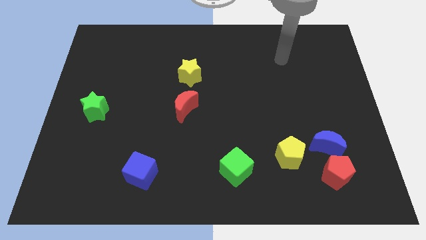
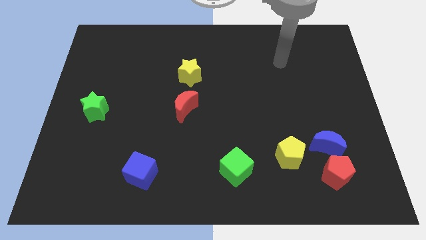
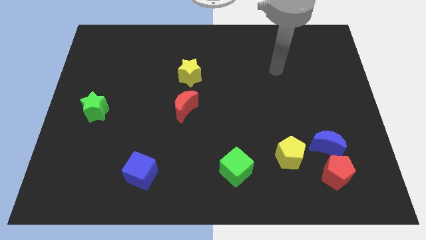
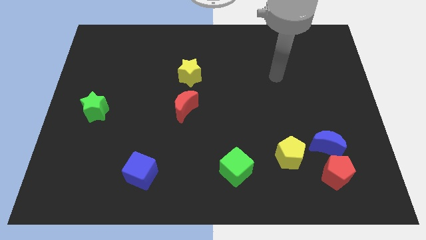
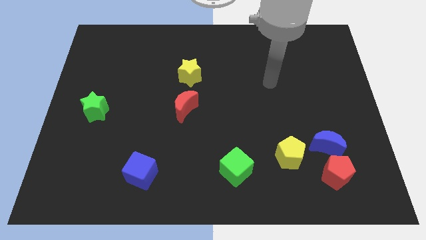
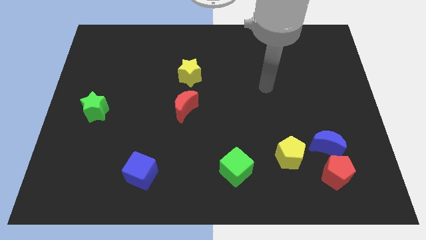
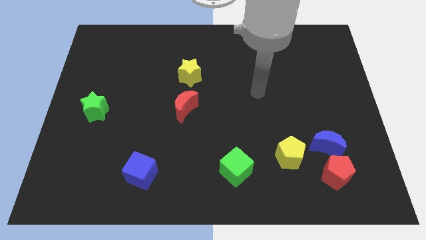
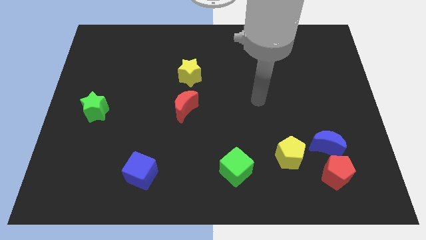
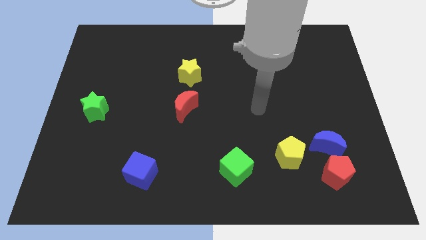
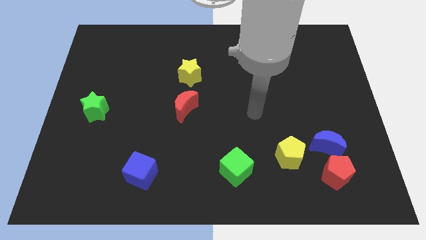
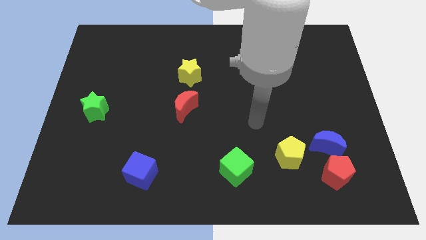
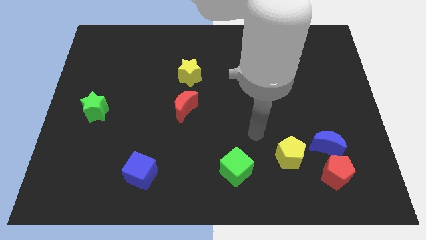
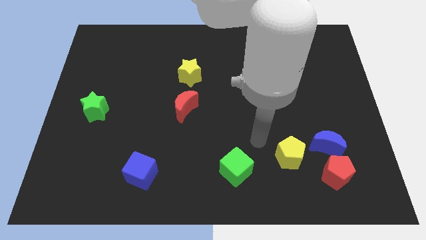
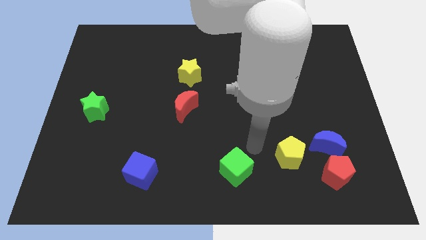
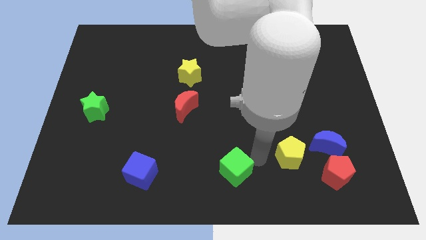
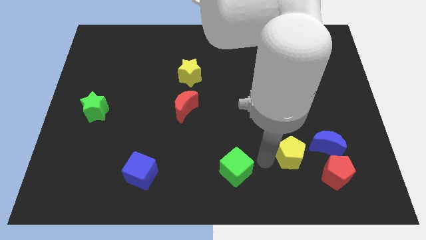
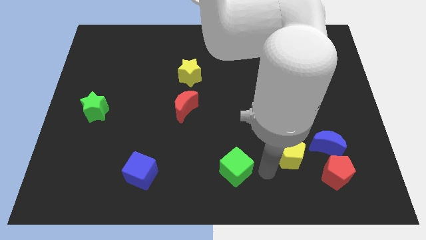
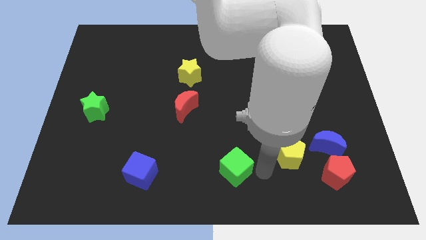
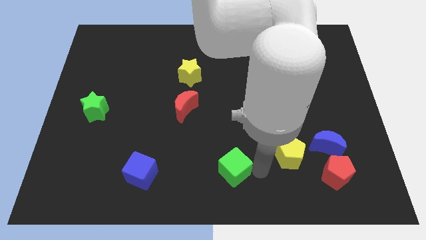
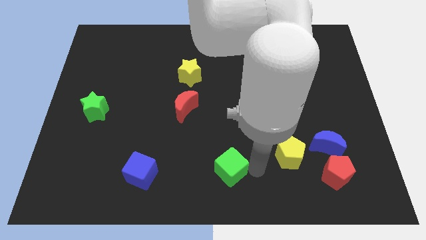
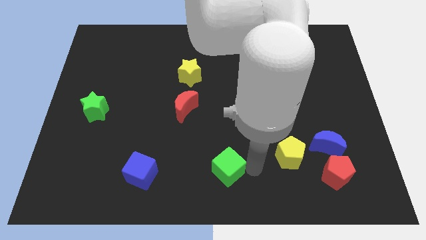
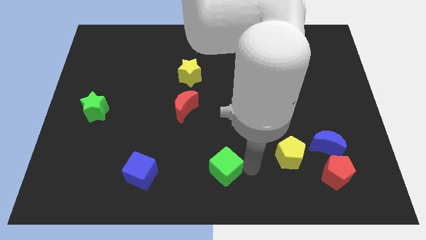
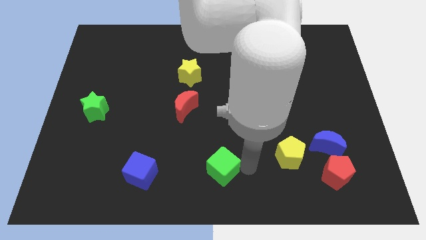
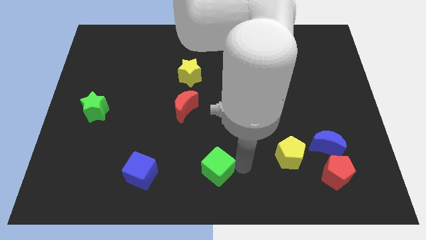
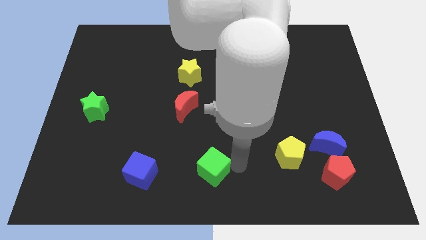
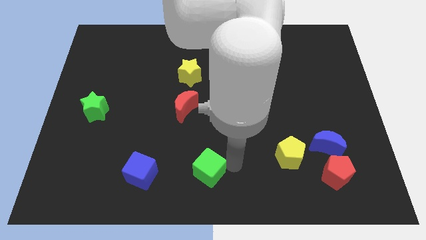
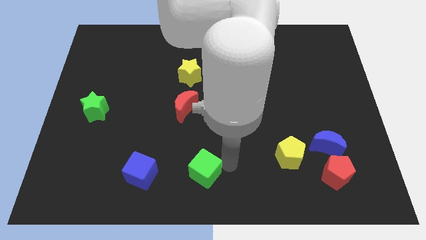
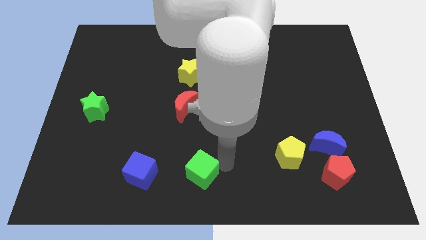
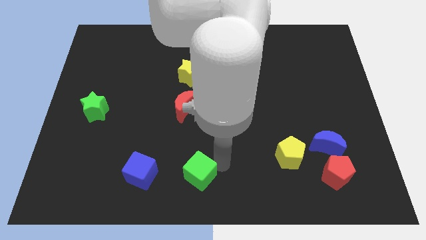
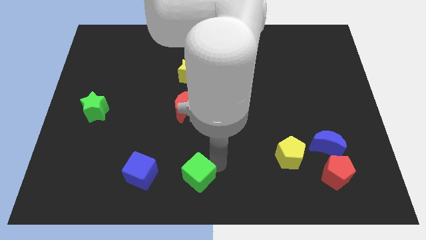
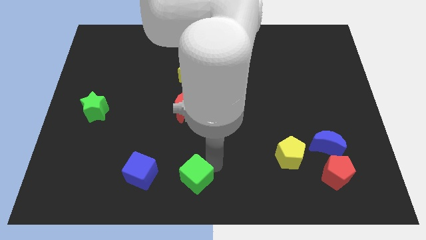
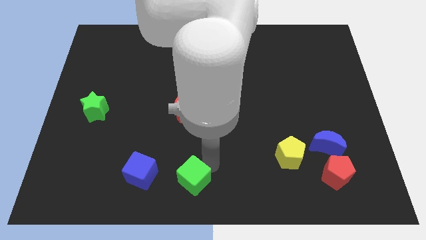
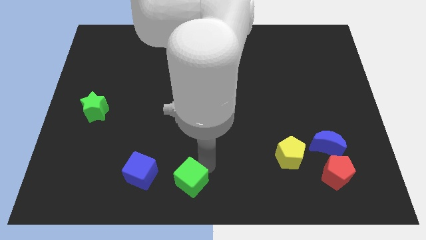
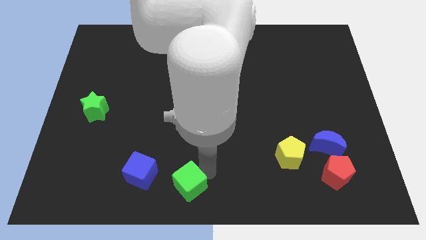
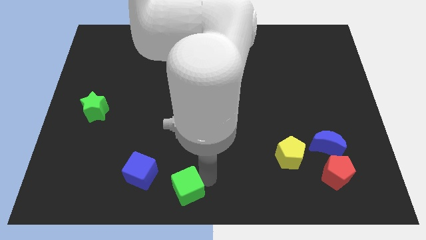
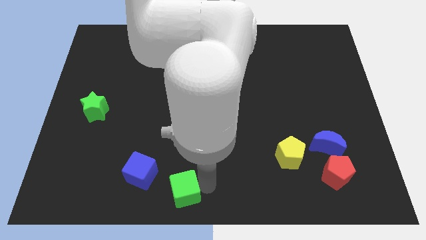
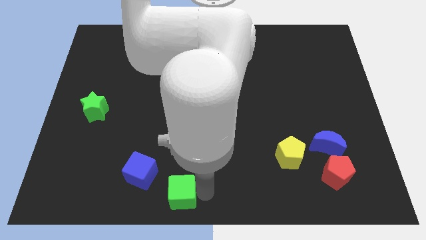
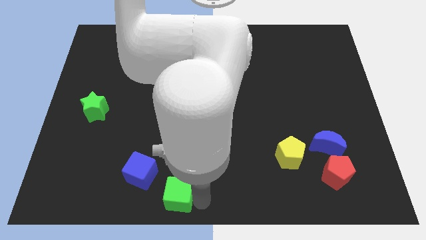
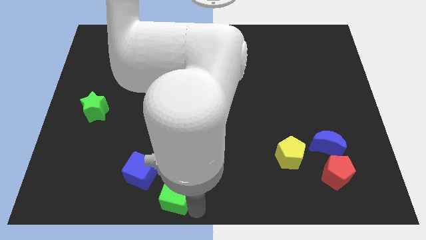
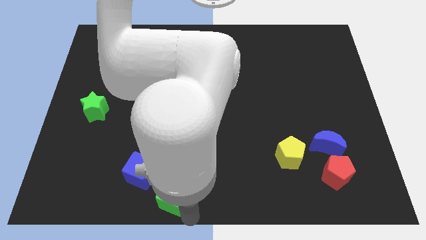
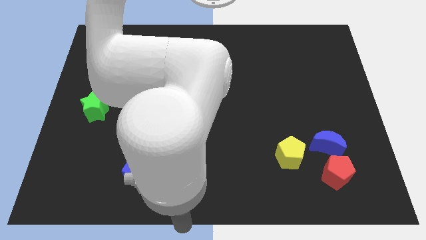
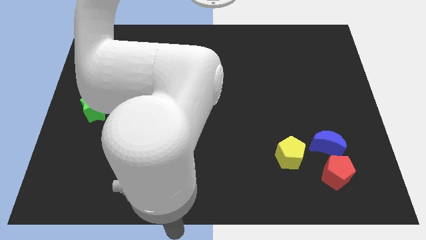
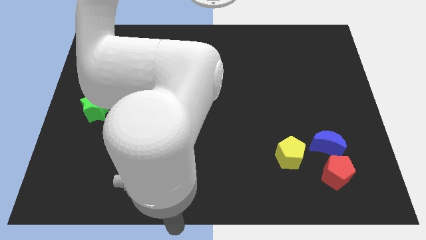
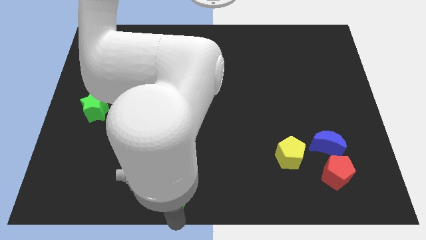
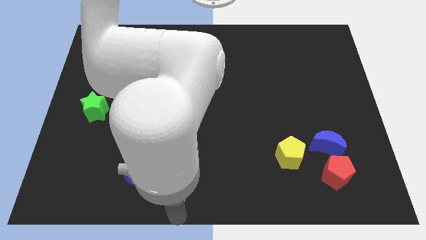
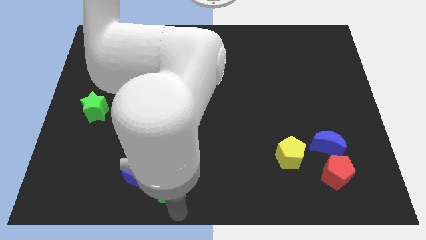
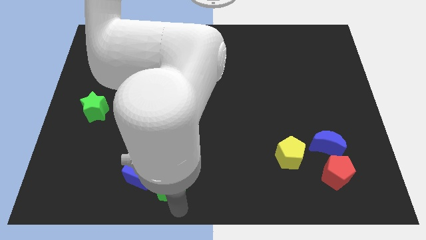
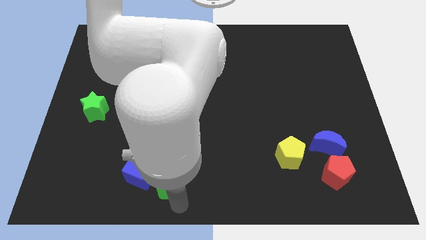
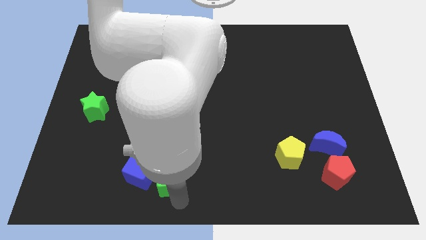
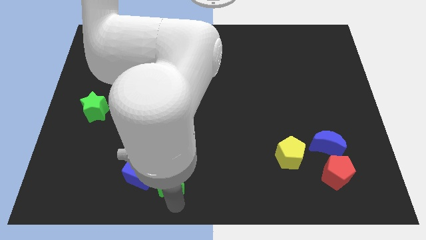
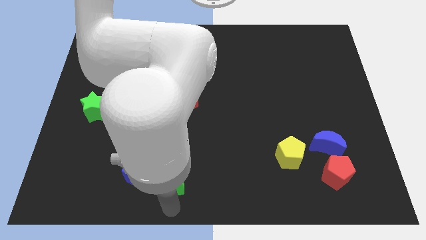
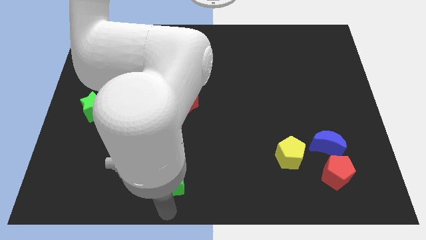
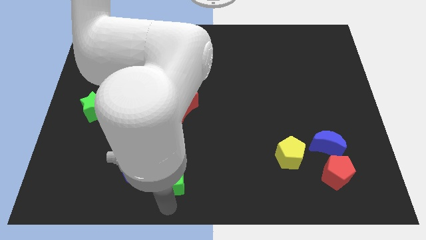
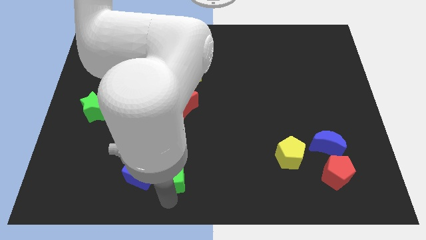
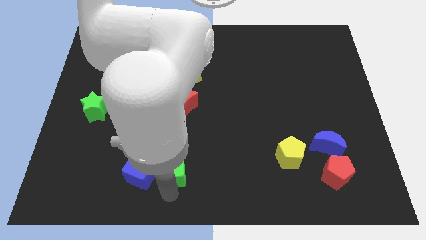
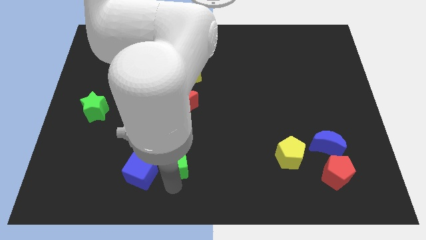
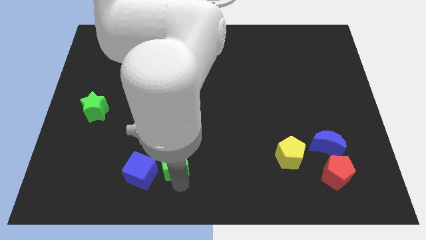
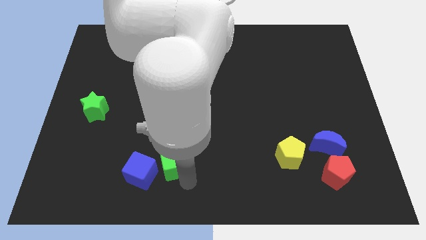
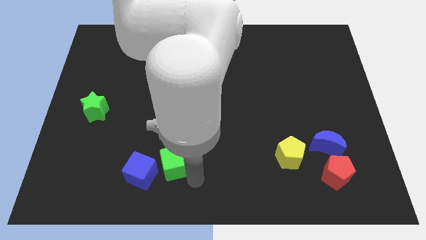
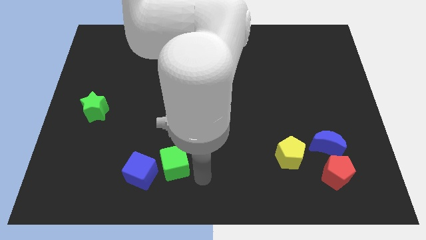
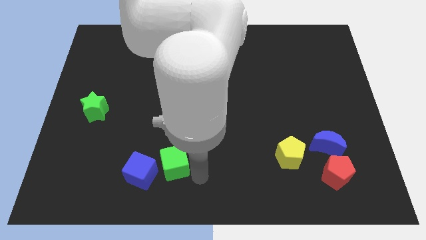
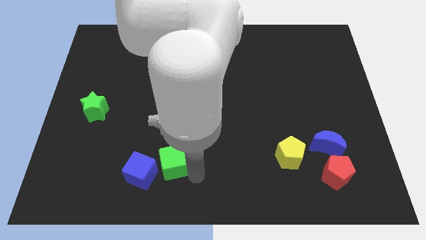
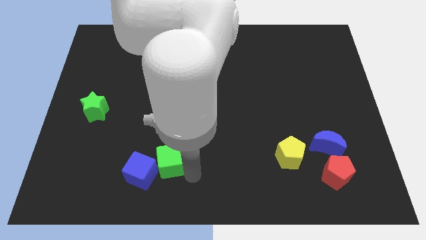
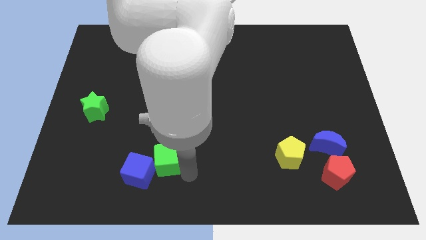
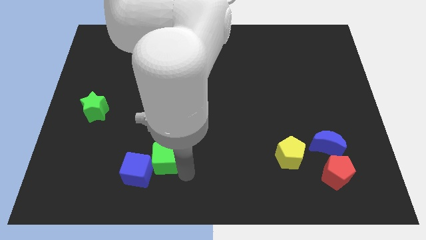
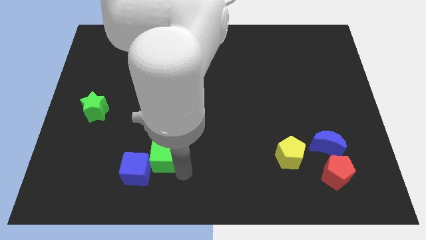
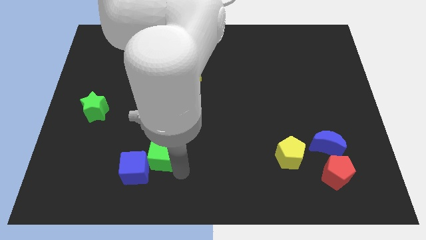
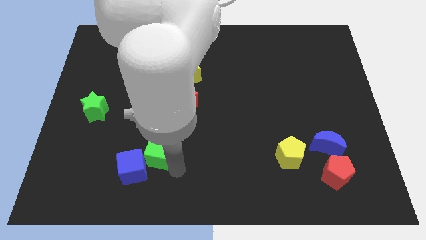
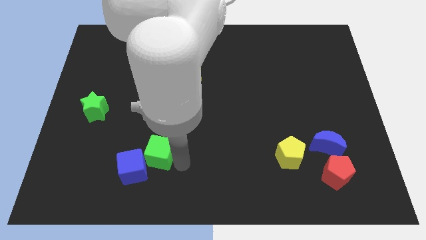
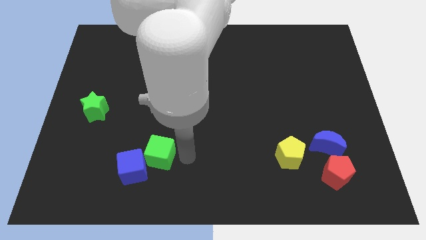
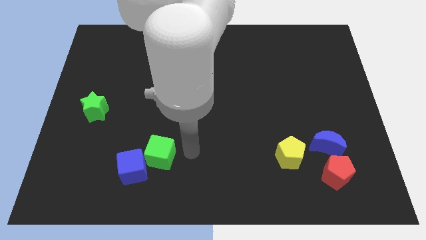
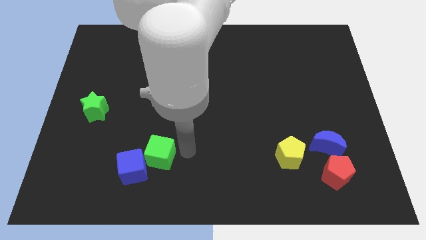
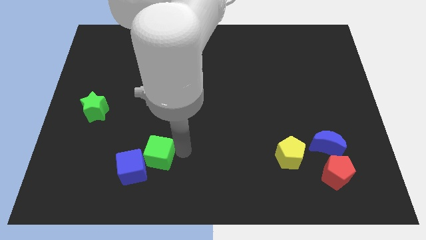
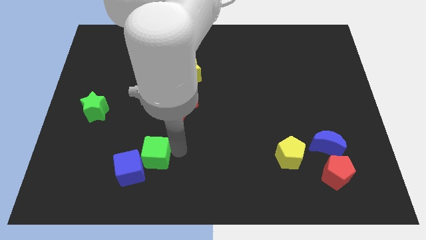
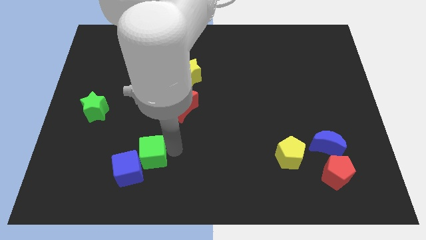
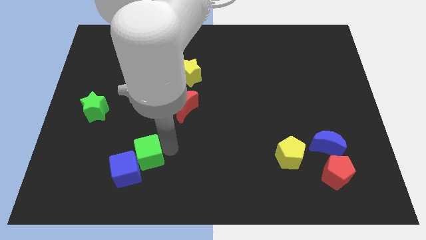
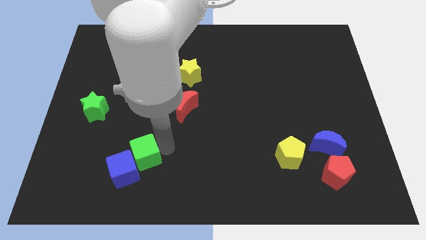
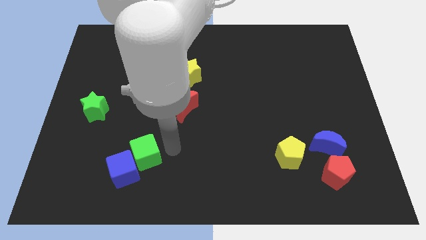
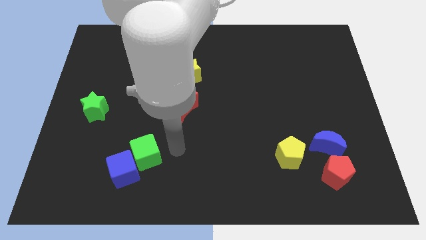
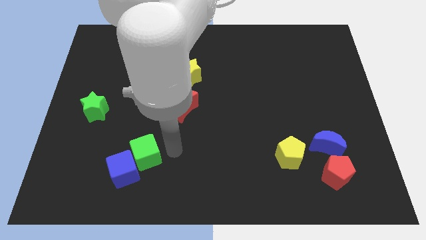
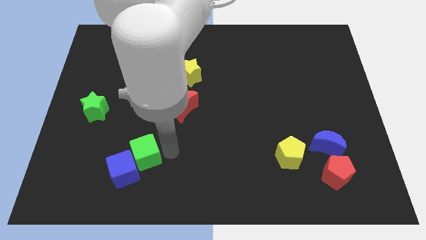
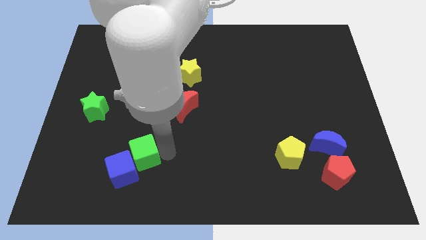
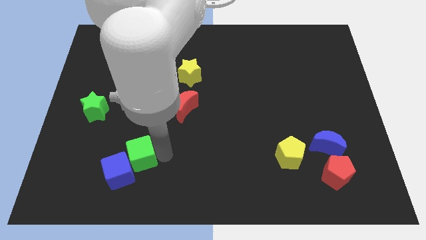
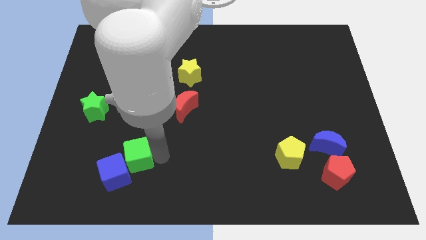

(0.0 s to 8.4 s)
move the green cube left
